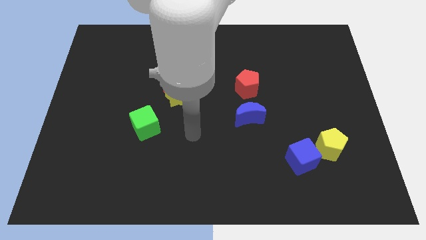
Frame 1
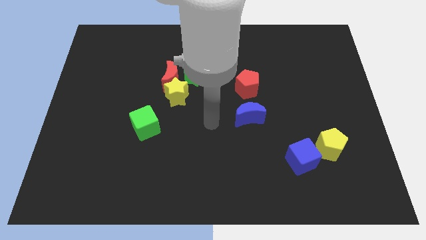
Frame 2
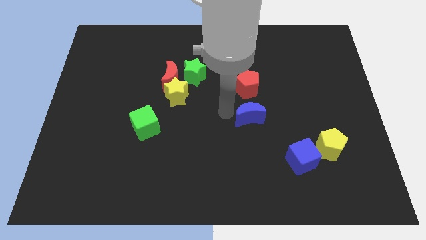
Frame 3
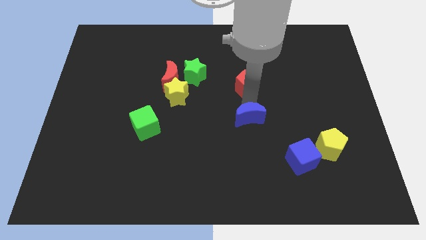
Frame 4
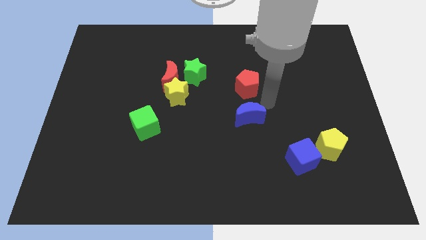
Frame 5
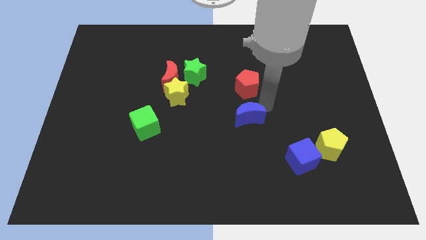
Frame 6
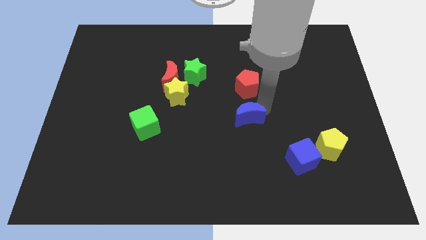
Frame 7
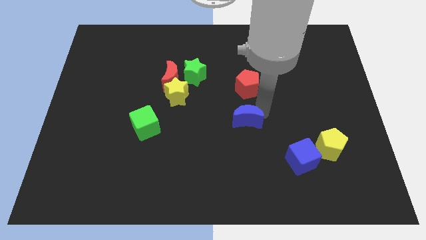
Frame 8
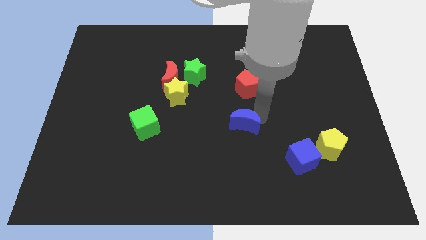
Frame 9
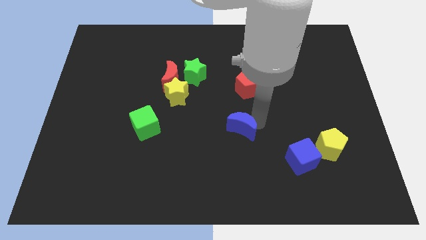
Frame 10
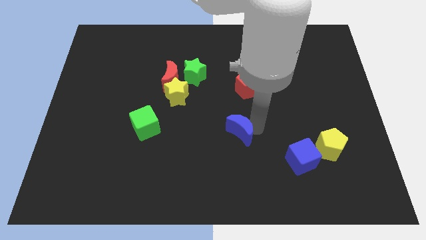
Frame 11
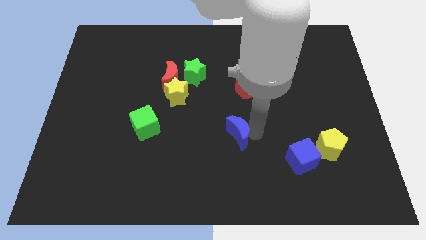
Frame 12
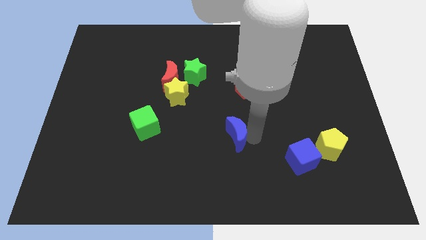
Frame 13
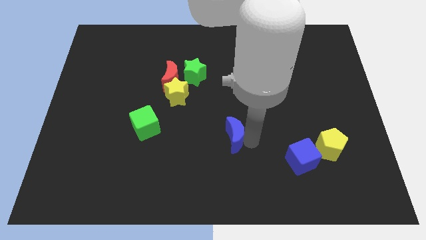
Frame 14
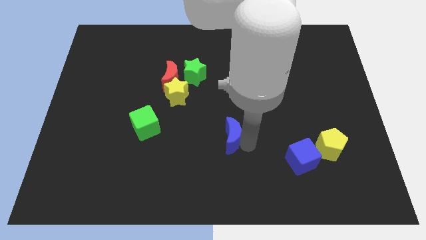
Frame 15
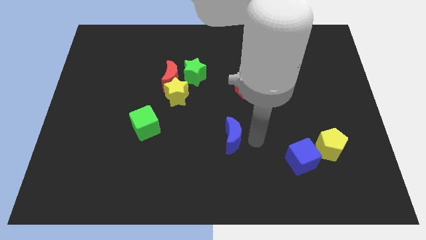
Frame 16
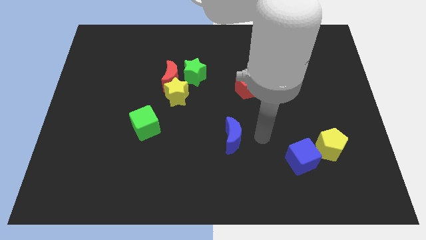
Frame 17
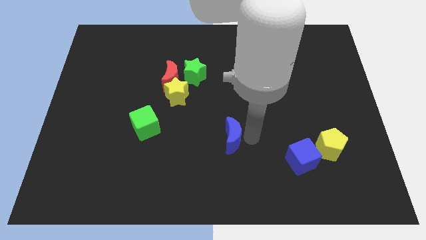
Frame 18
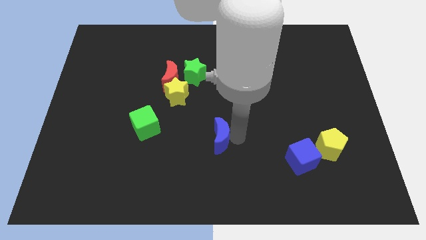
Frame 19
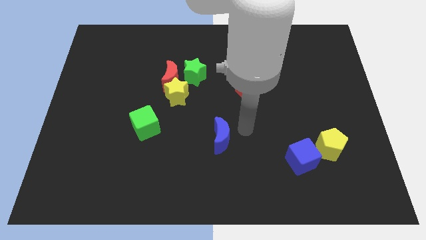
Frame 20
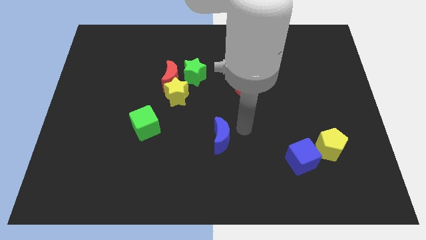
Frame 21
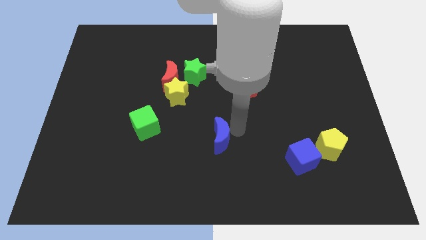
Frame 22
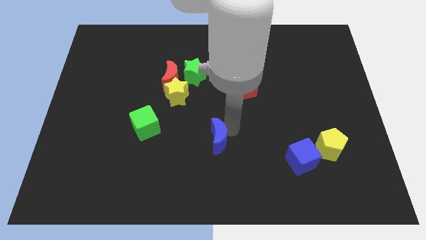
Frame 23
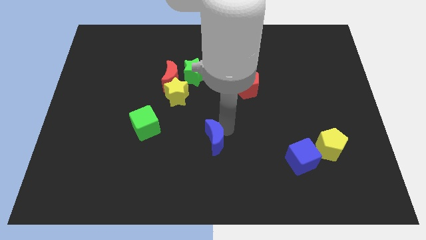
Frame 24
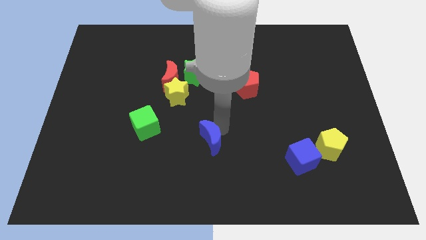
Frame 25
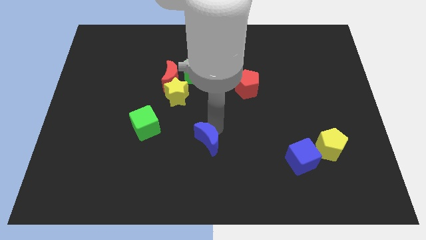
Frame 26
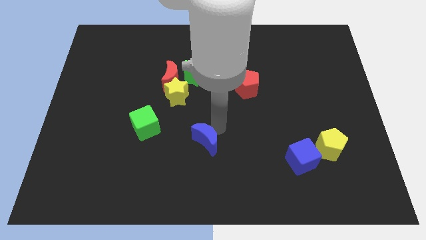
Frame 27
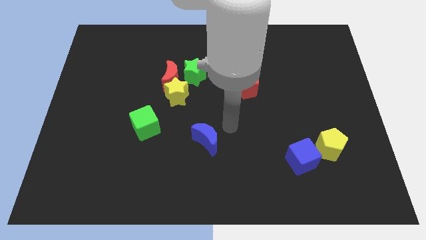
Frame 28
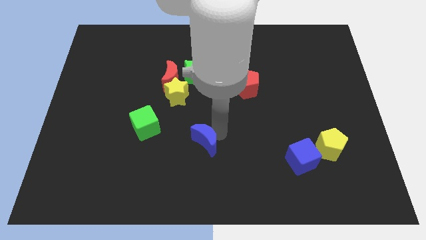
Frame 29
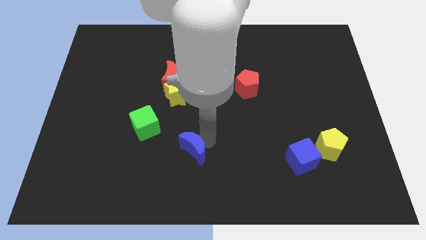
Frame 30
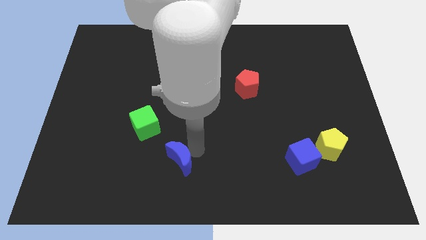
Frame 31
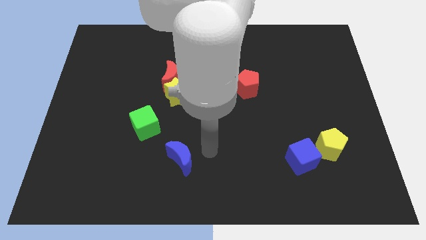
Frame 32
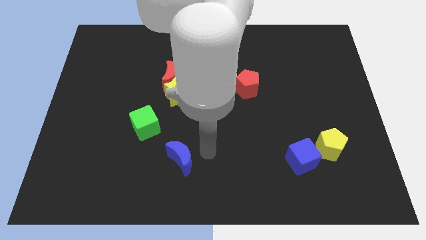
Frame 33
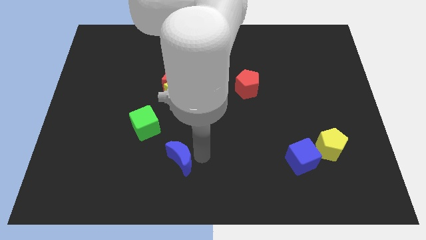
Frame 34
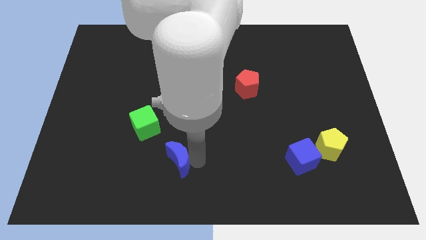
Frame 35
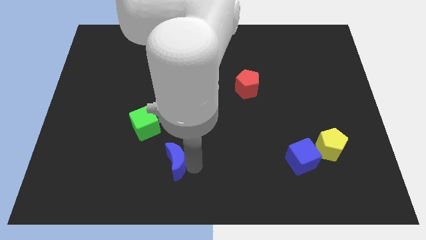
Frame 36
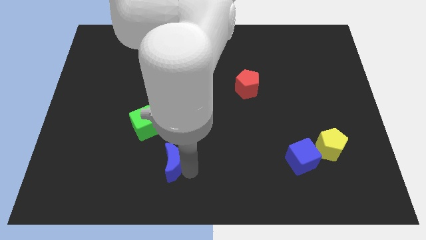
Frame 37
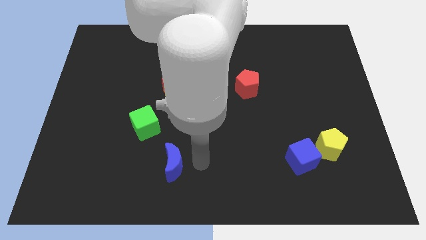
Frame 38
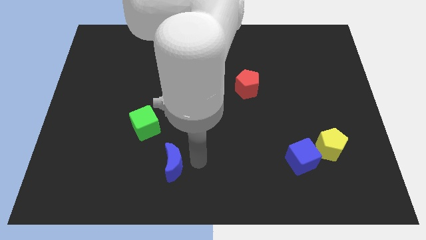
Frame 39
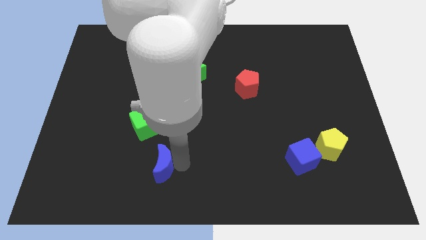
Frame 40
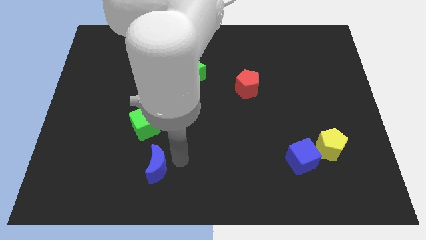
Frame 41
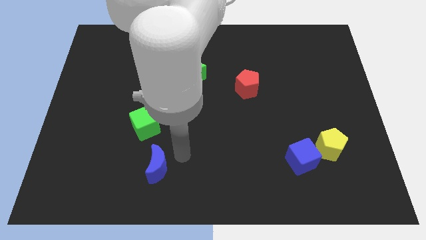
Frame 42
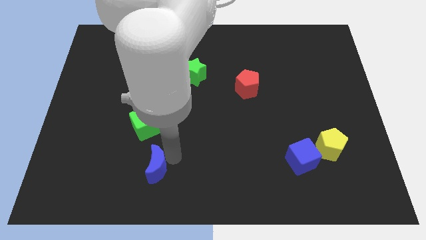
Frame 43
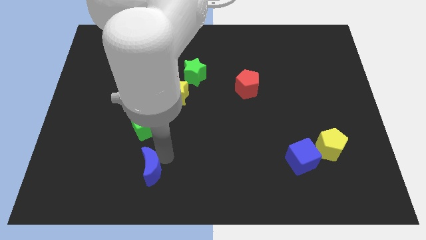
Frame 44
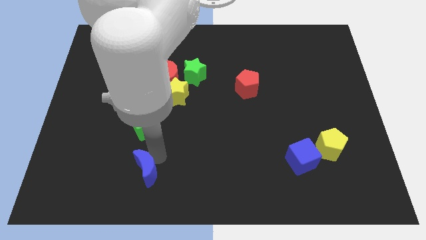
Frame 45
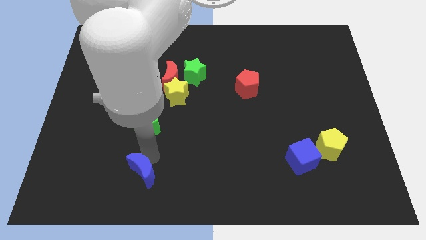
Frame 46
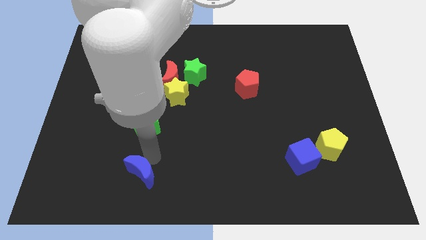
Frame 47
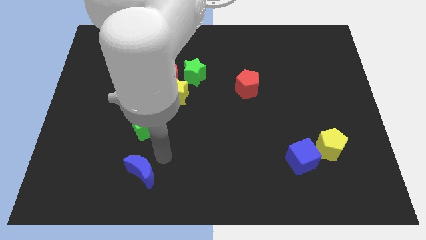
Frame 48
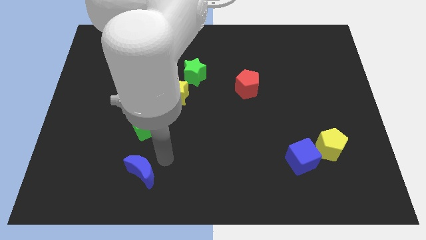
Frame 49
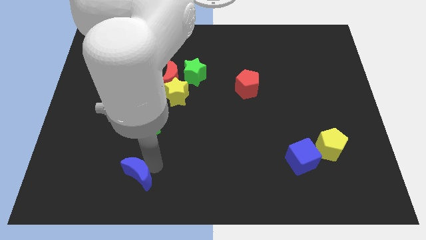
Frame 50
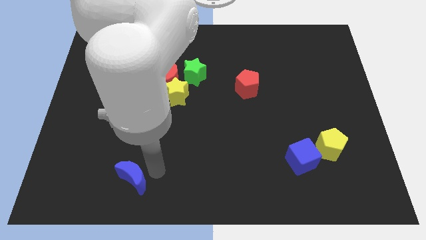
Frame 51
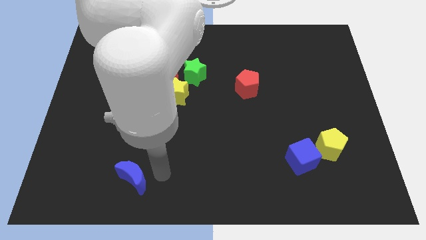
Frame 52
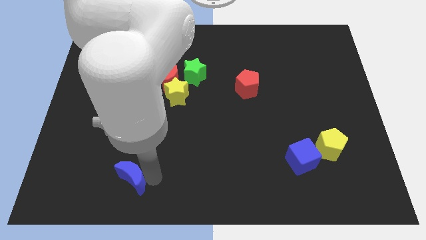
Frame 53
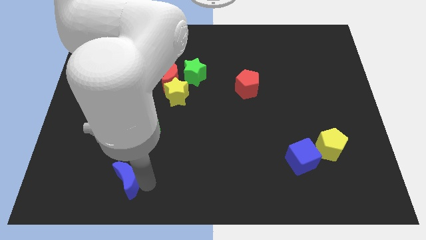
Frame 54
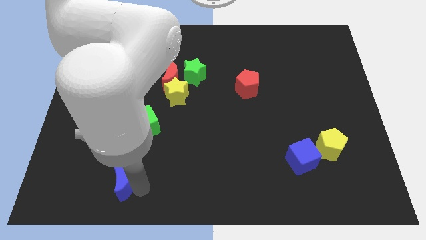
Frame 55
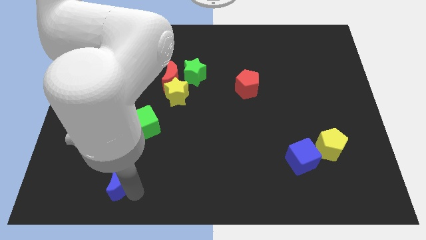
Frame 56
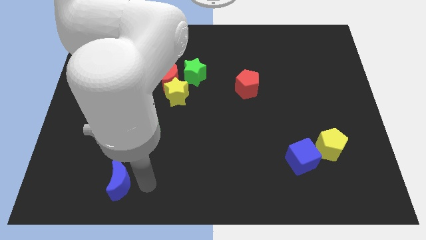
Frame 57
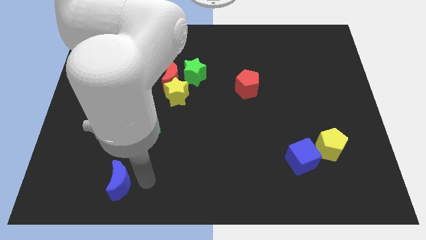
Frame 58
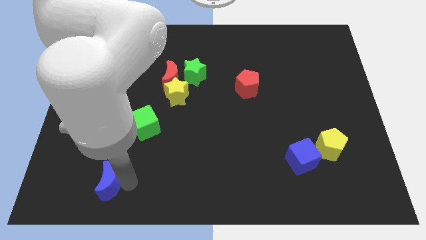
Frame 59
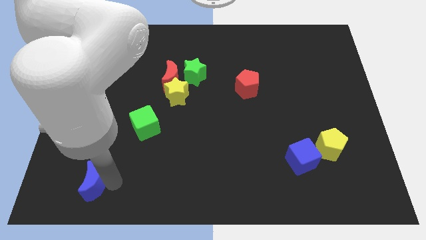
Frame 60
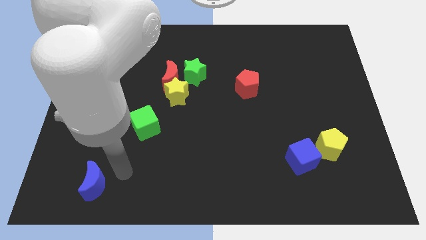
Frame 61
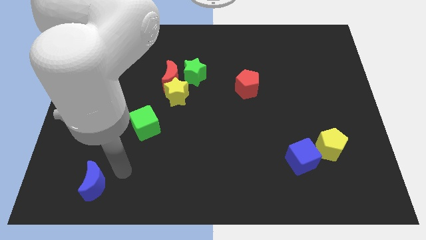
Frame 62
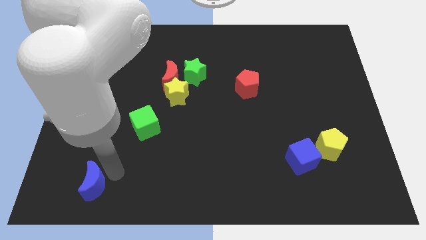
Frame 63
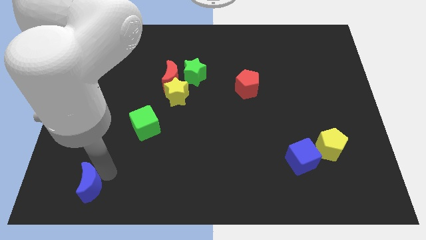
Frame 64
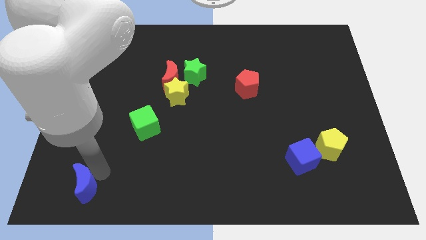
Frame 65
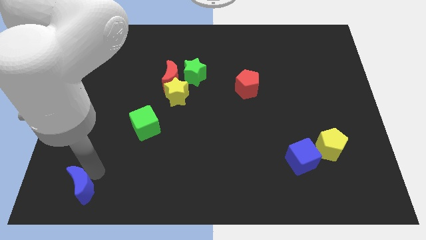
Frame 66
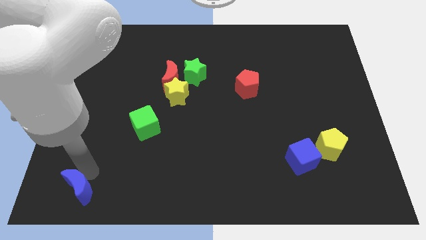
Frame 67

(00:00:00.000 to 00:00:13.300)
slide the blue moon to the bottom left
